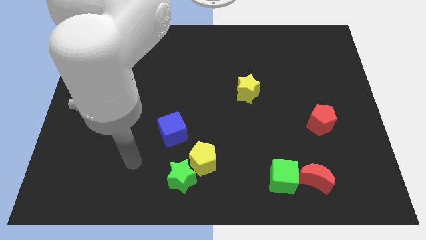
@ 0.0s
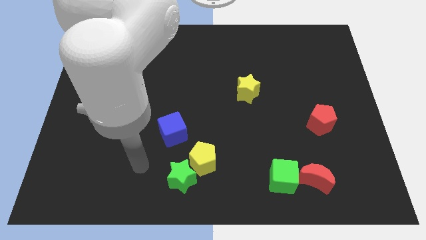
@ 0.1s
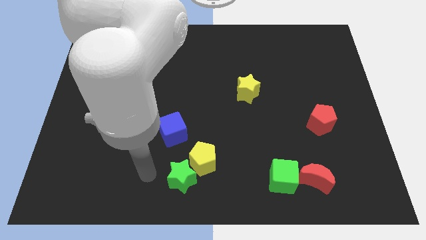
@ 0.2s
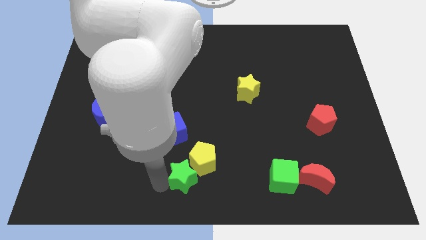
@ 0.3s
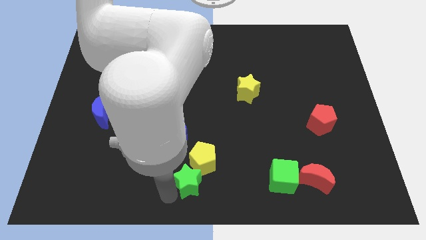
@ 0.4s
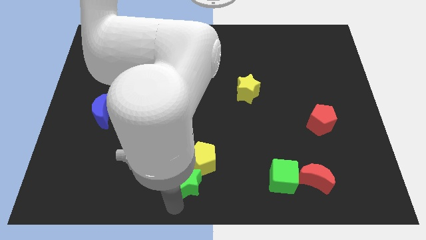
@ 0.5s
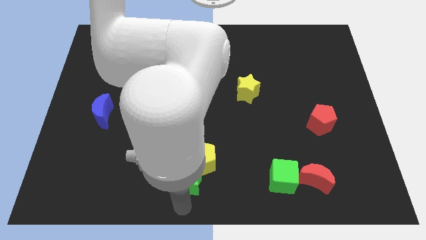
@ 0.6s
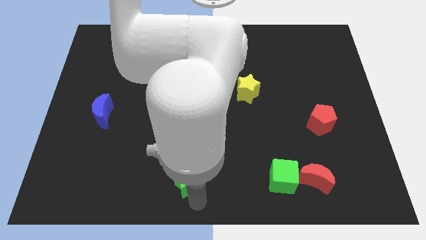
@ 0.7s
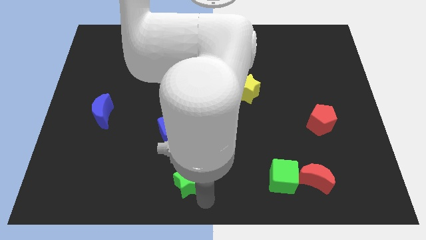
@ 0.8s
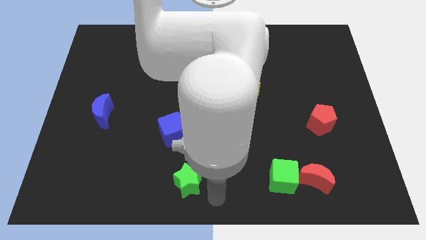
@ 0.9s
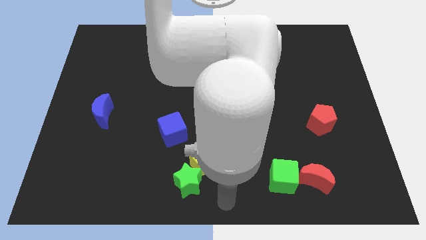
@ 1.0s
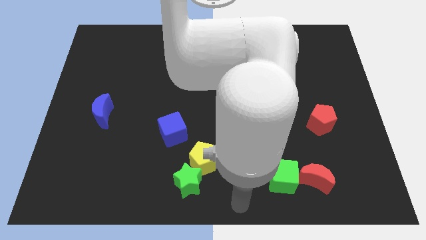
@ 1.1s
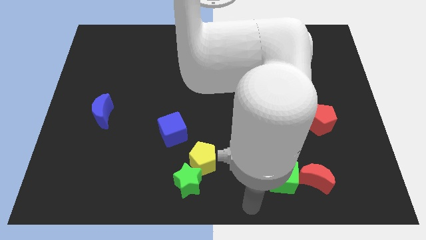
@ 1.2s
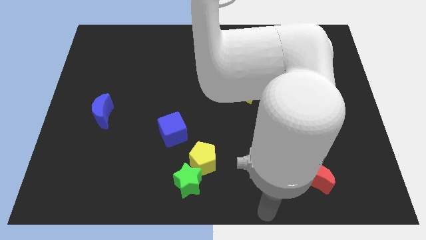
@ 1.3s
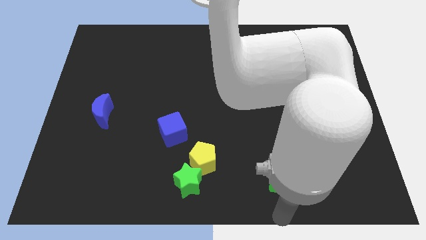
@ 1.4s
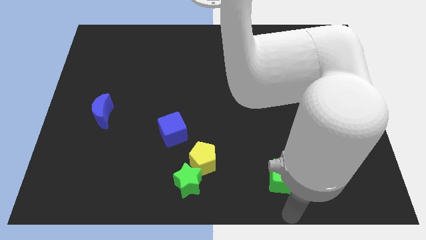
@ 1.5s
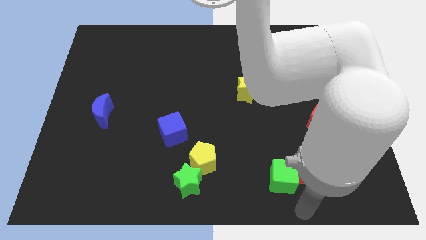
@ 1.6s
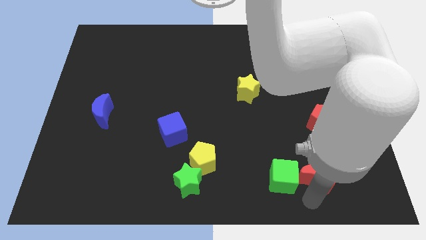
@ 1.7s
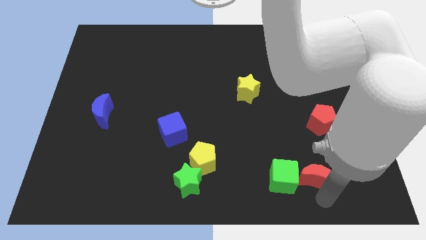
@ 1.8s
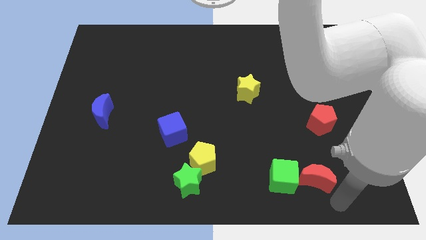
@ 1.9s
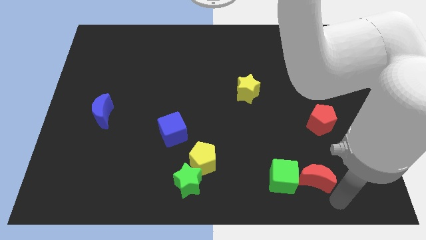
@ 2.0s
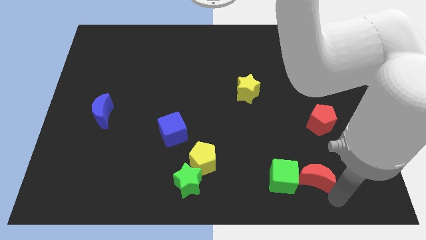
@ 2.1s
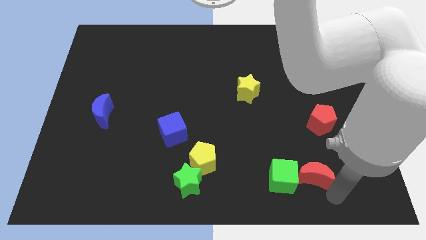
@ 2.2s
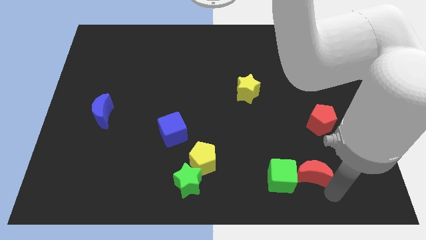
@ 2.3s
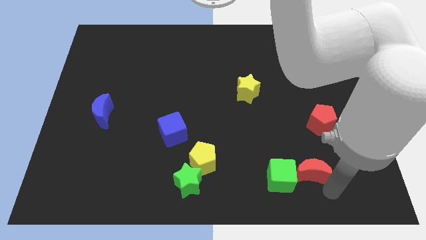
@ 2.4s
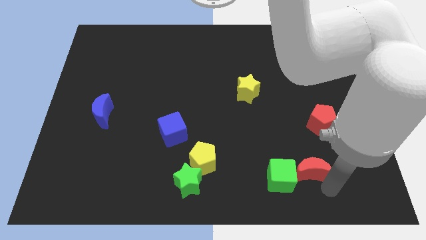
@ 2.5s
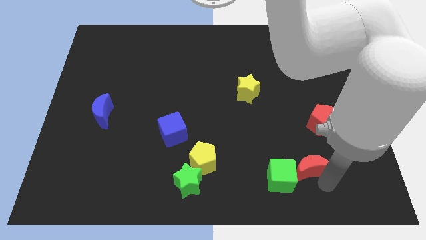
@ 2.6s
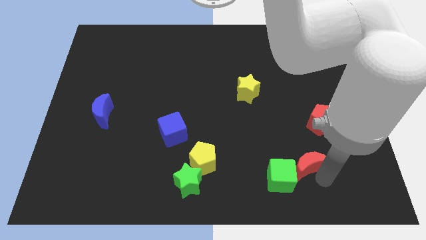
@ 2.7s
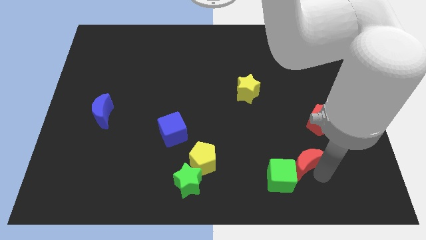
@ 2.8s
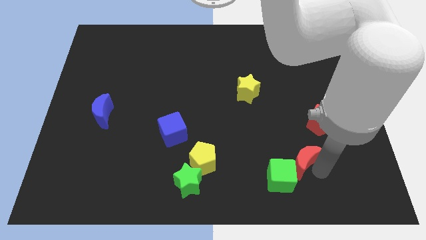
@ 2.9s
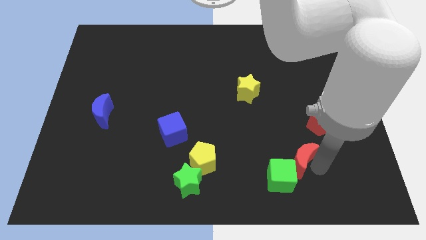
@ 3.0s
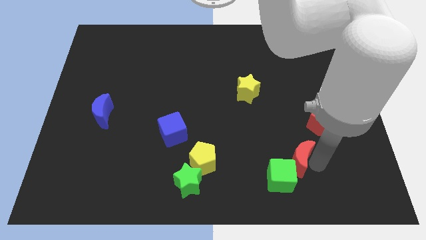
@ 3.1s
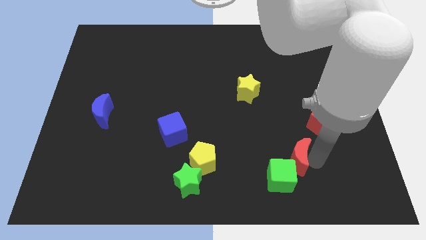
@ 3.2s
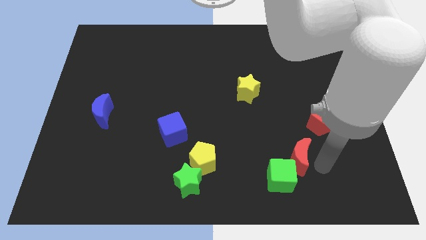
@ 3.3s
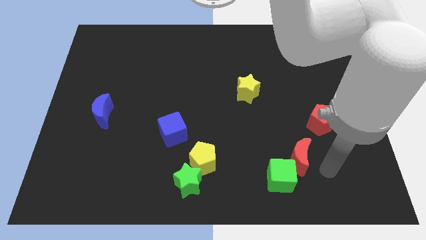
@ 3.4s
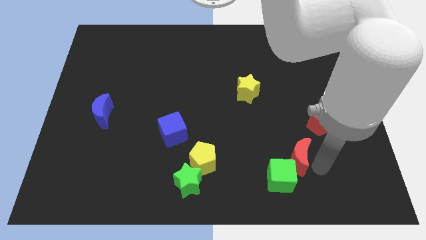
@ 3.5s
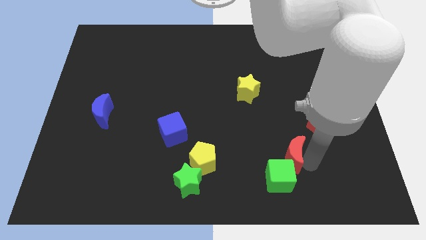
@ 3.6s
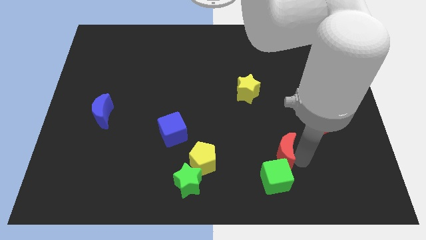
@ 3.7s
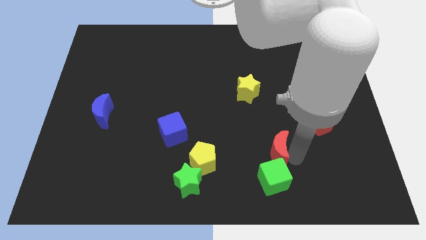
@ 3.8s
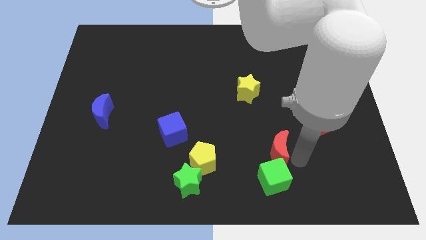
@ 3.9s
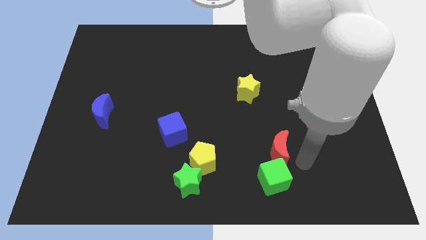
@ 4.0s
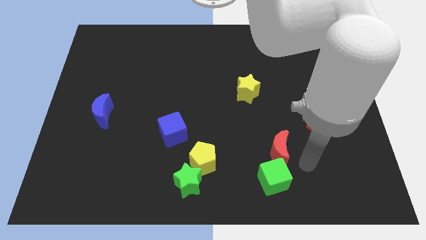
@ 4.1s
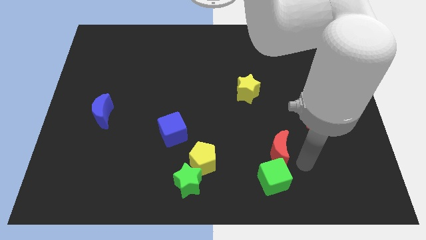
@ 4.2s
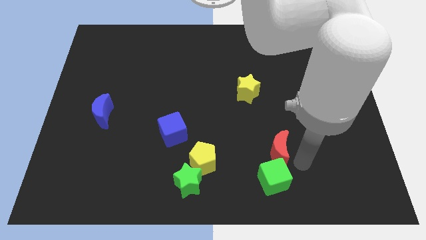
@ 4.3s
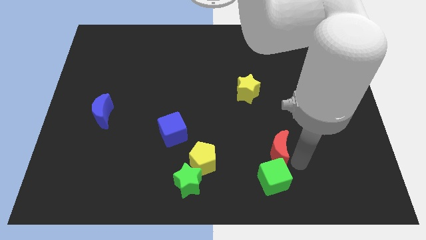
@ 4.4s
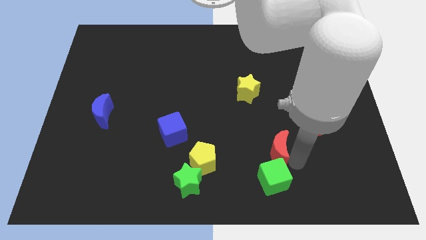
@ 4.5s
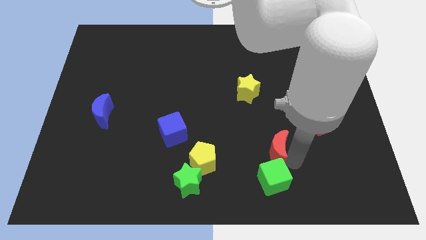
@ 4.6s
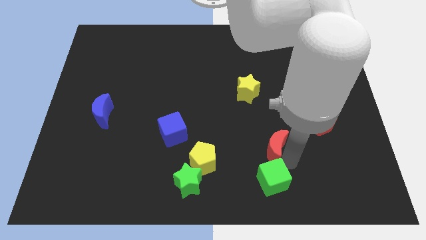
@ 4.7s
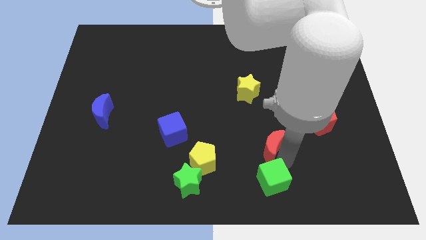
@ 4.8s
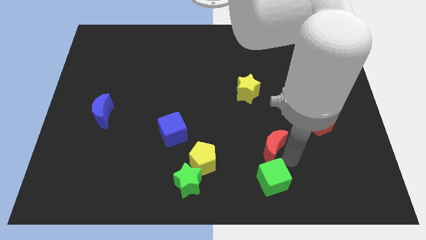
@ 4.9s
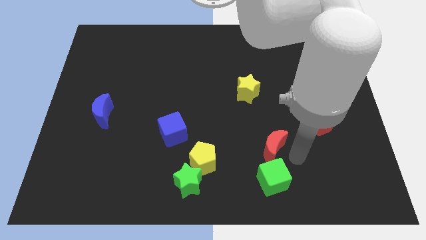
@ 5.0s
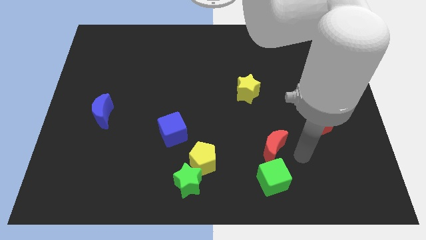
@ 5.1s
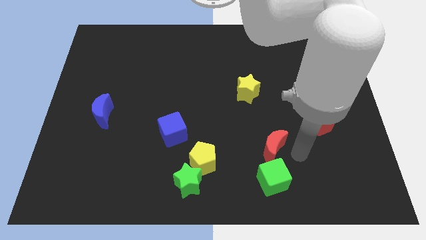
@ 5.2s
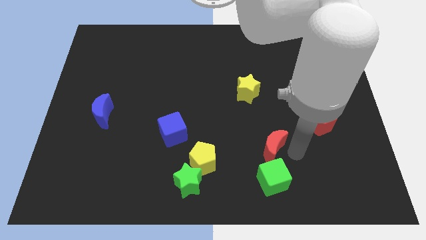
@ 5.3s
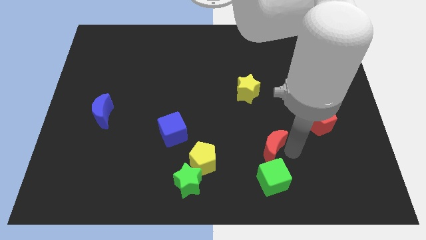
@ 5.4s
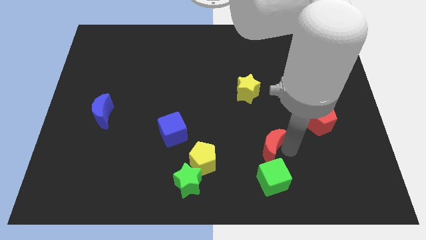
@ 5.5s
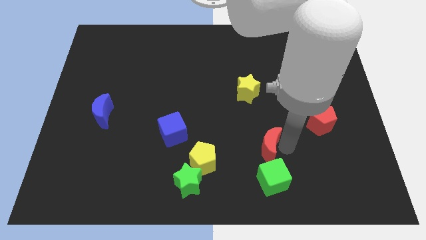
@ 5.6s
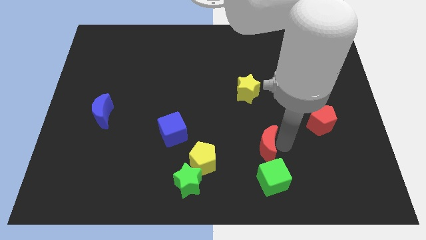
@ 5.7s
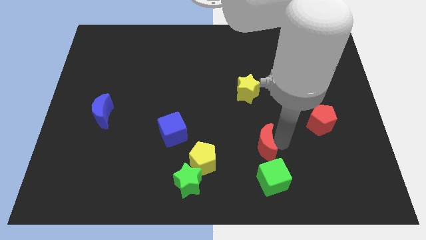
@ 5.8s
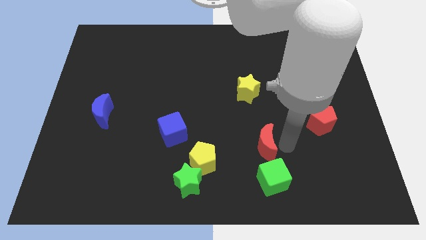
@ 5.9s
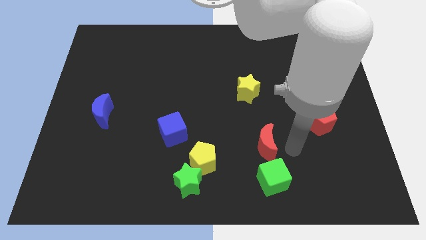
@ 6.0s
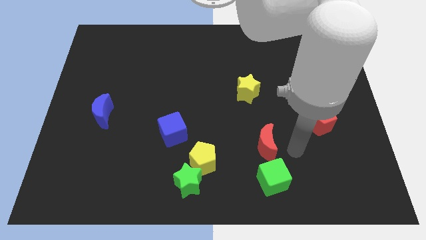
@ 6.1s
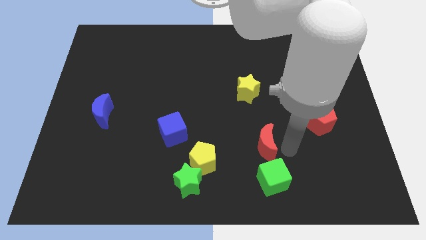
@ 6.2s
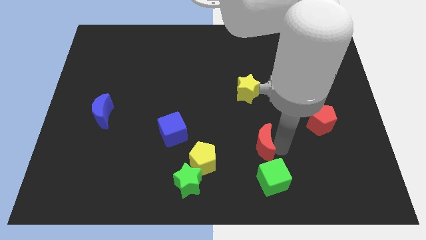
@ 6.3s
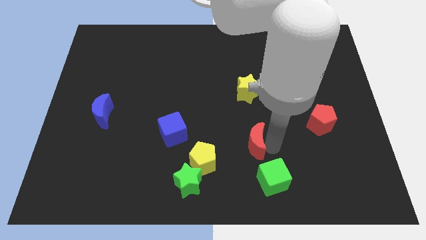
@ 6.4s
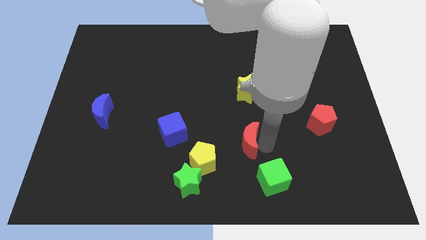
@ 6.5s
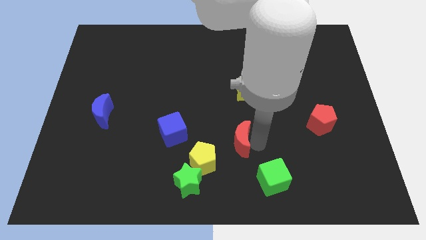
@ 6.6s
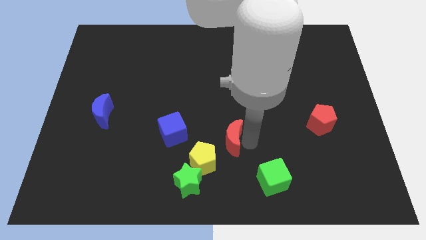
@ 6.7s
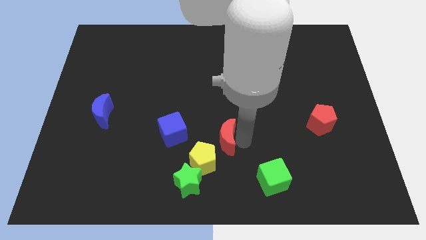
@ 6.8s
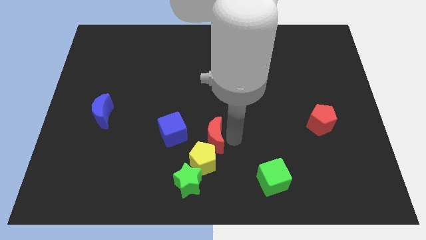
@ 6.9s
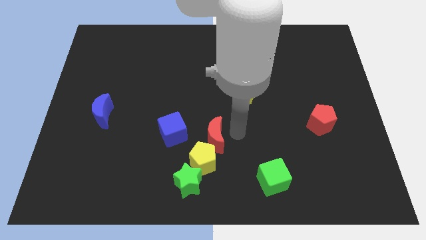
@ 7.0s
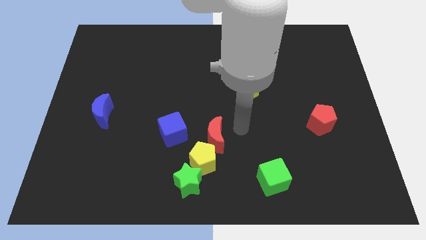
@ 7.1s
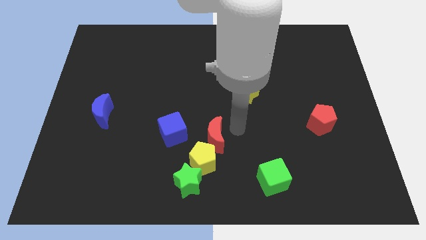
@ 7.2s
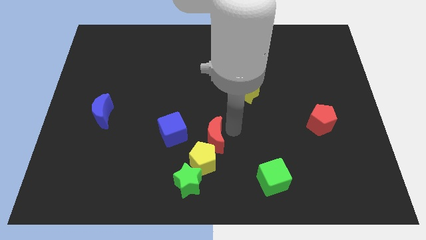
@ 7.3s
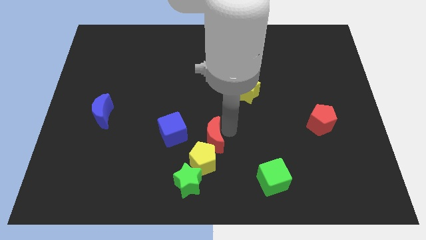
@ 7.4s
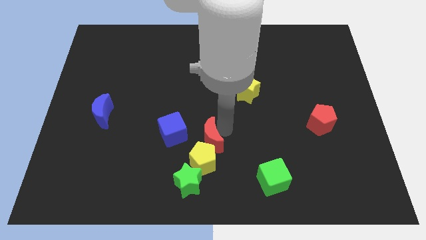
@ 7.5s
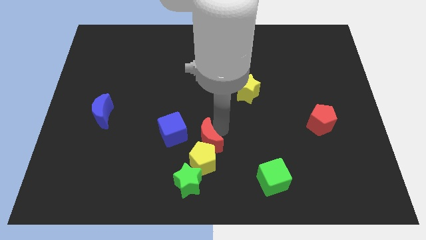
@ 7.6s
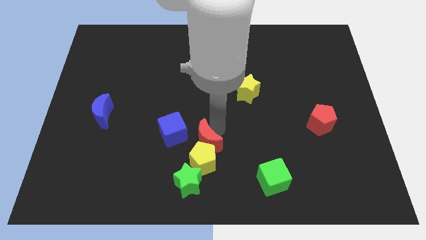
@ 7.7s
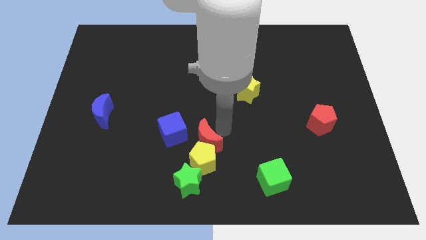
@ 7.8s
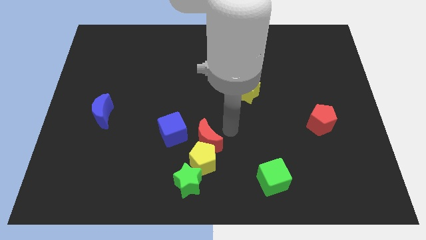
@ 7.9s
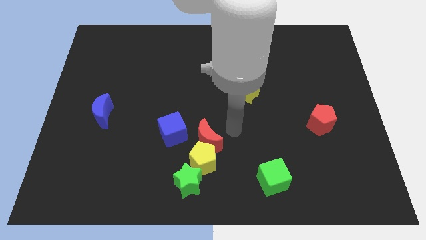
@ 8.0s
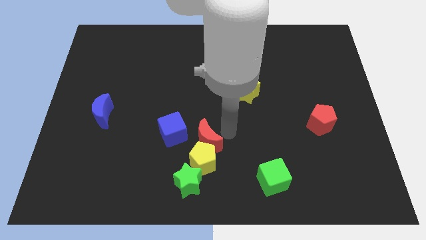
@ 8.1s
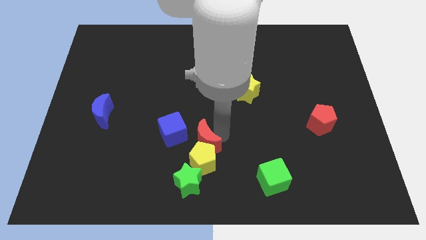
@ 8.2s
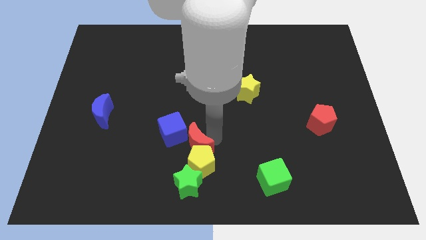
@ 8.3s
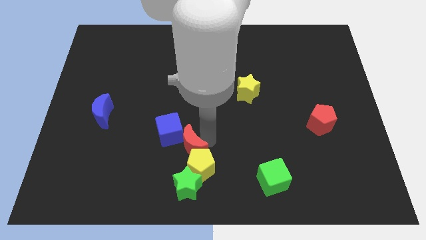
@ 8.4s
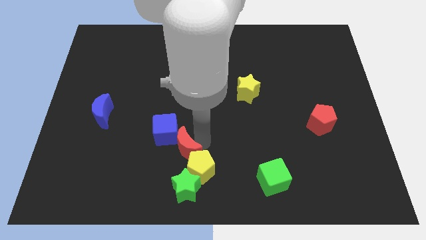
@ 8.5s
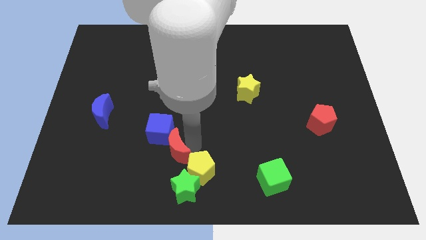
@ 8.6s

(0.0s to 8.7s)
put the red moon to the left side of the yellow pentagon
